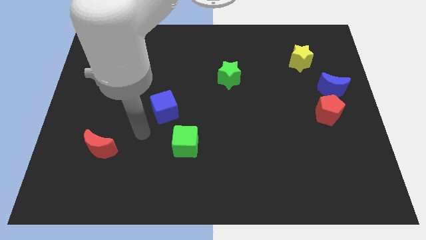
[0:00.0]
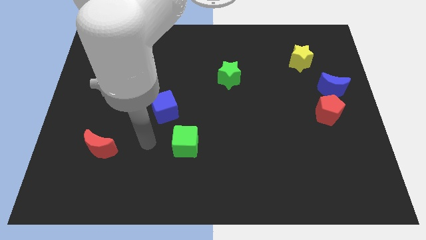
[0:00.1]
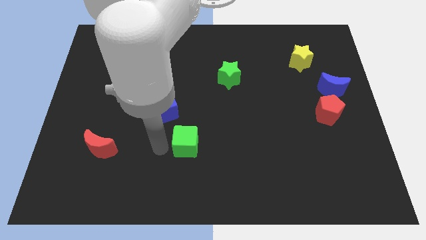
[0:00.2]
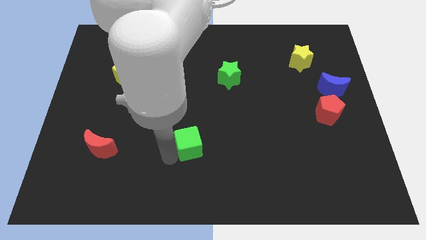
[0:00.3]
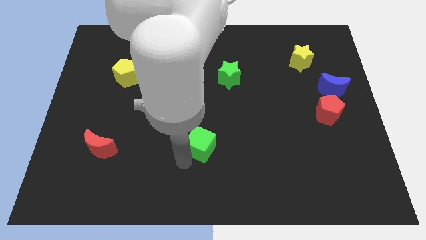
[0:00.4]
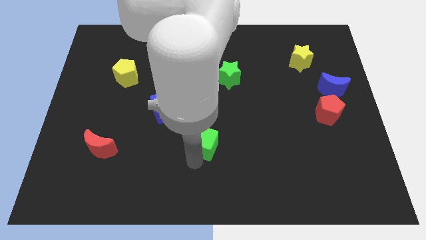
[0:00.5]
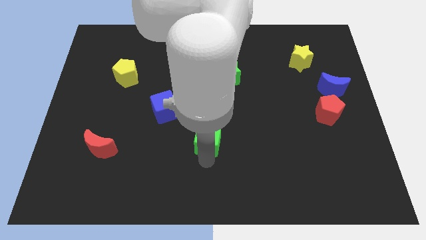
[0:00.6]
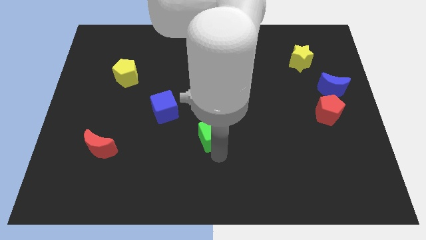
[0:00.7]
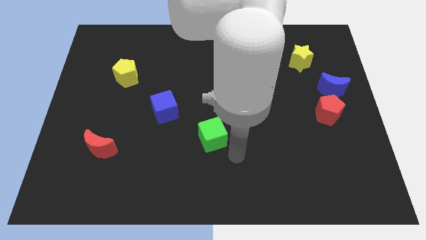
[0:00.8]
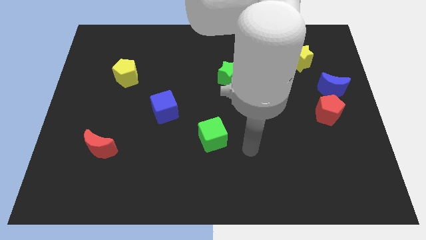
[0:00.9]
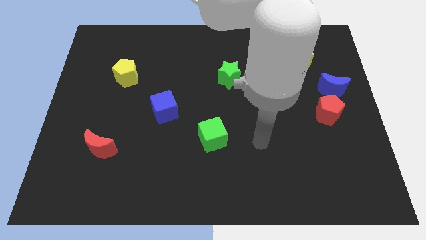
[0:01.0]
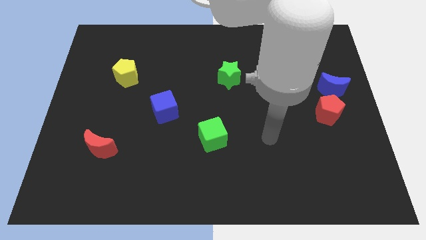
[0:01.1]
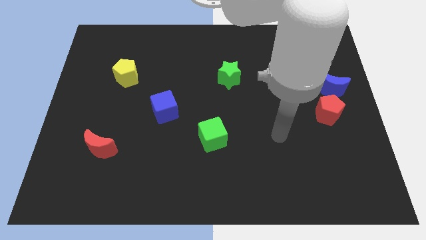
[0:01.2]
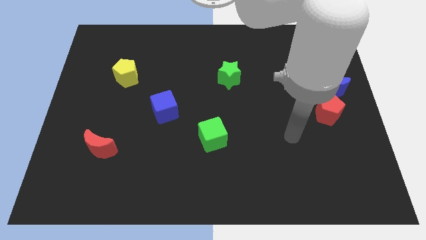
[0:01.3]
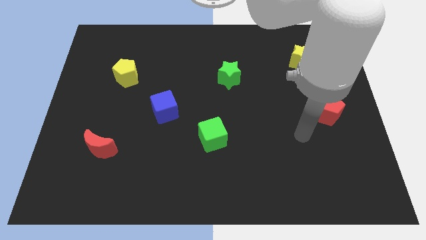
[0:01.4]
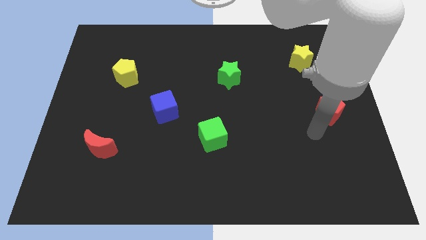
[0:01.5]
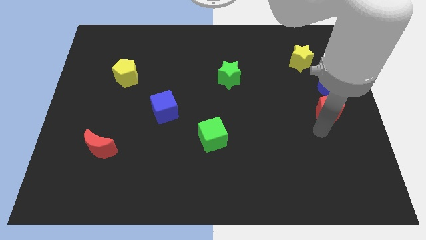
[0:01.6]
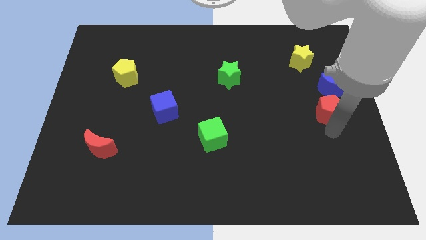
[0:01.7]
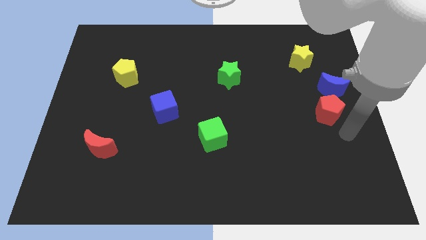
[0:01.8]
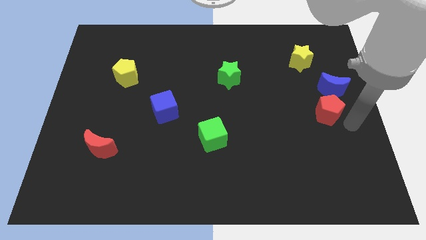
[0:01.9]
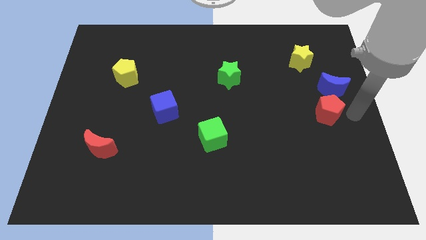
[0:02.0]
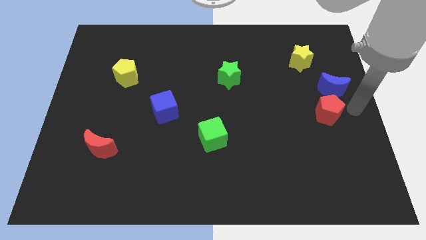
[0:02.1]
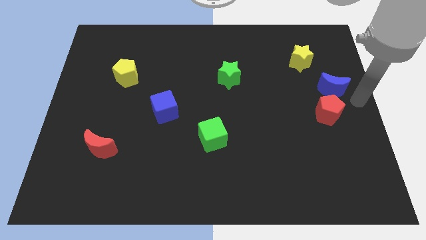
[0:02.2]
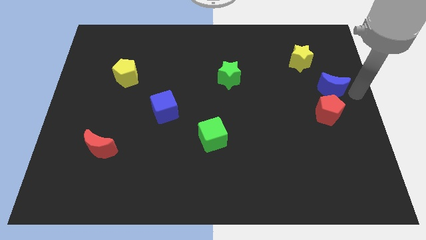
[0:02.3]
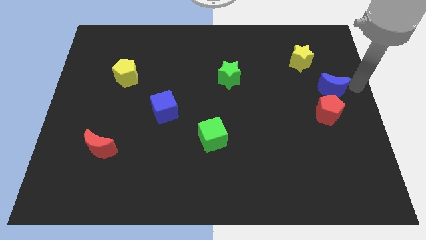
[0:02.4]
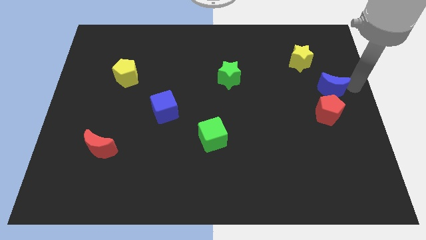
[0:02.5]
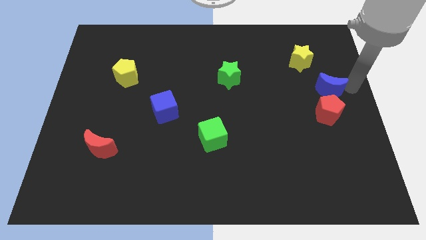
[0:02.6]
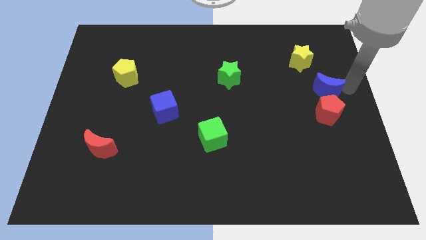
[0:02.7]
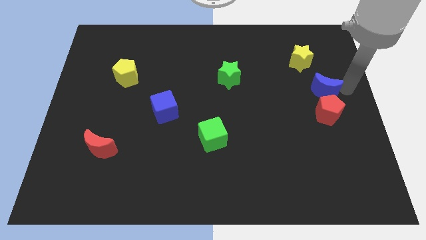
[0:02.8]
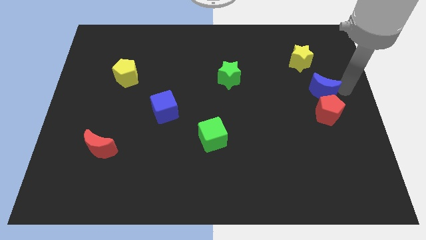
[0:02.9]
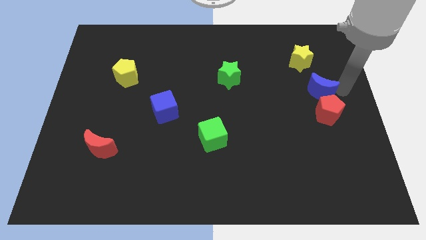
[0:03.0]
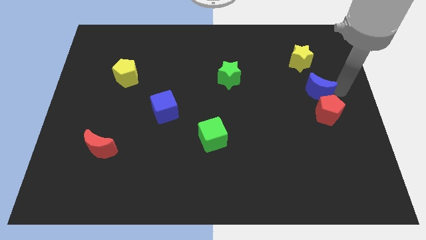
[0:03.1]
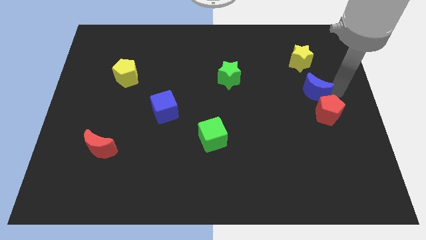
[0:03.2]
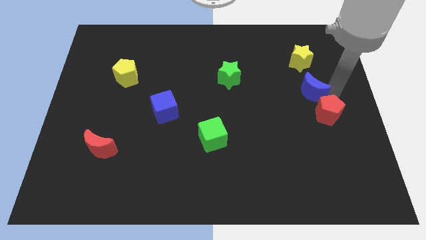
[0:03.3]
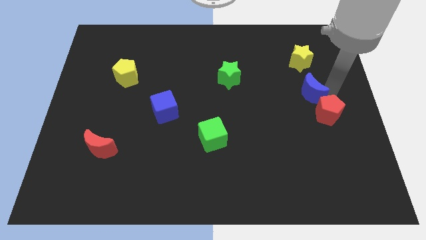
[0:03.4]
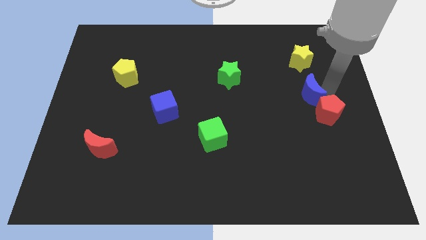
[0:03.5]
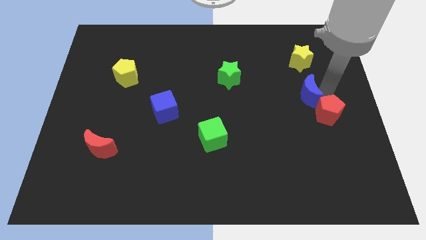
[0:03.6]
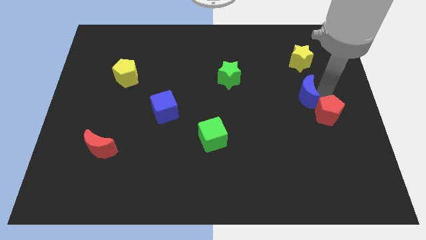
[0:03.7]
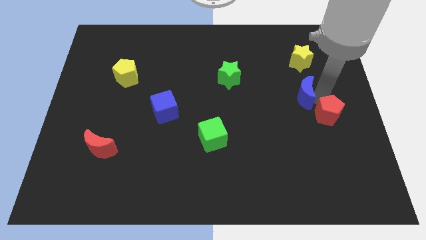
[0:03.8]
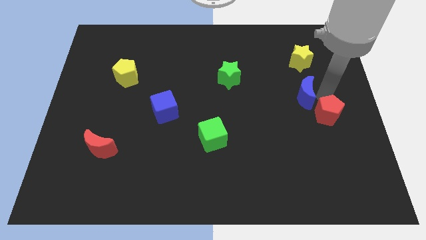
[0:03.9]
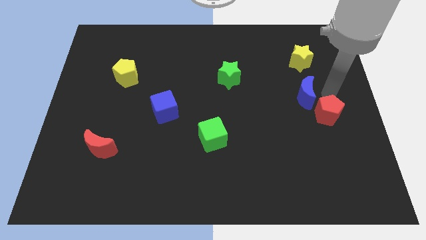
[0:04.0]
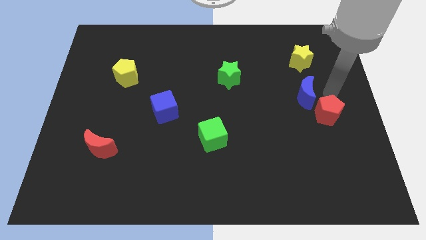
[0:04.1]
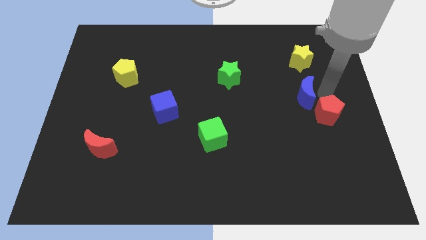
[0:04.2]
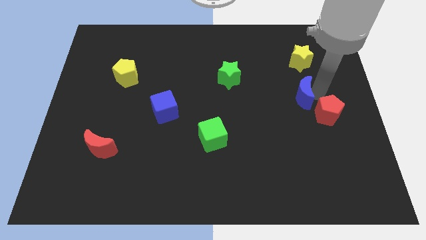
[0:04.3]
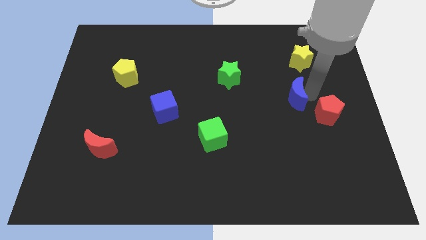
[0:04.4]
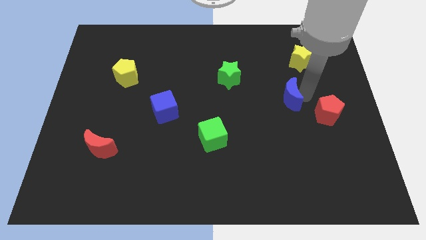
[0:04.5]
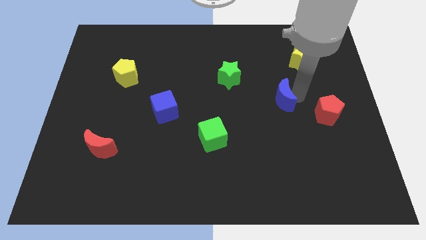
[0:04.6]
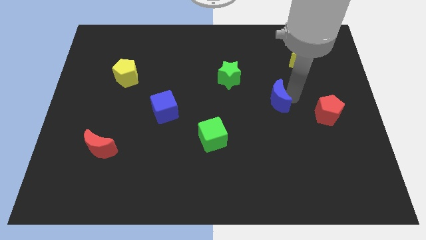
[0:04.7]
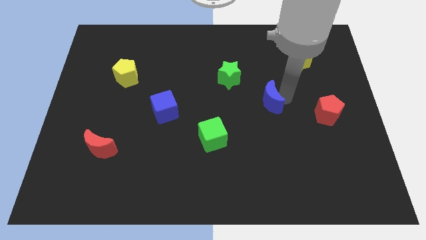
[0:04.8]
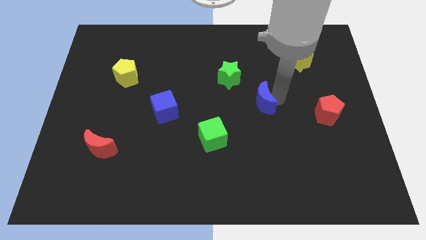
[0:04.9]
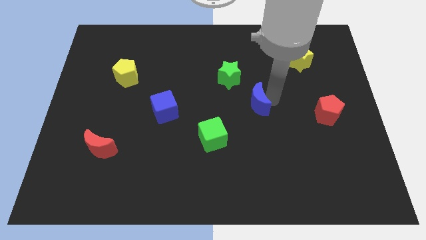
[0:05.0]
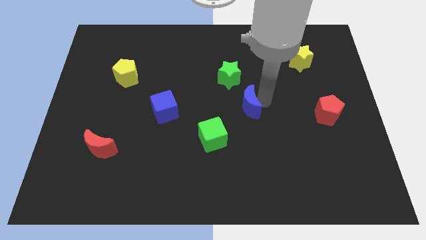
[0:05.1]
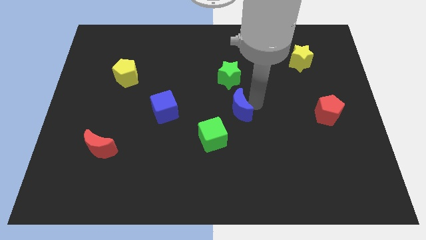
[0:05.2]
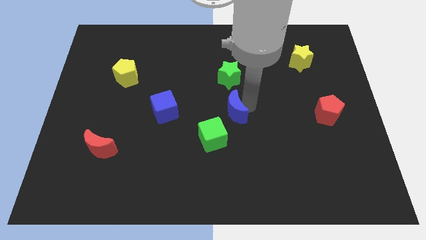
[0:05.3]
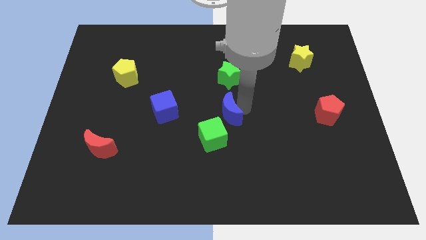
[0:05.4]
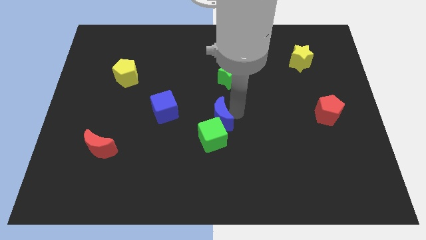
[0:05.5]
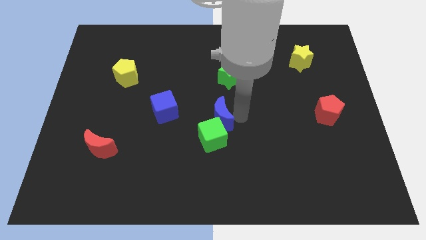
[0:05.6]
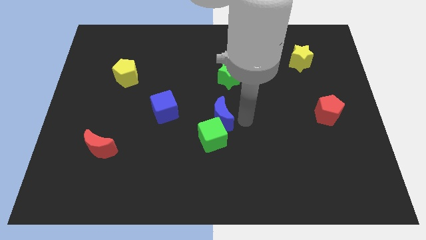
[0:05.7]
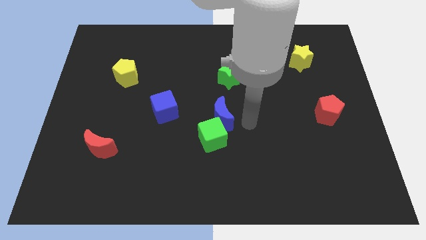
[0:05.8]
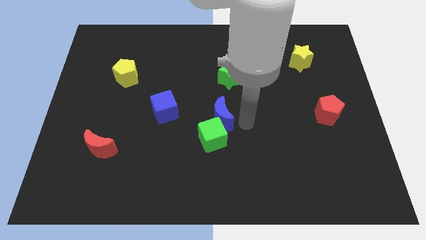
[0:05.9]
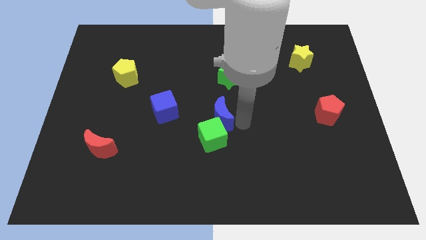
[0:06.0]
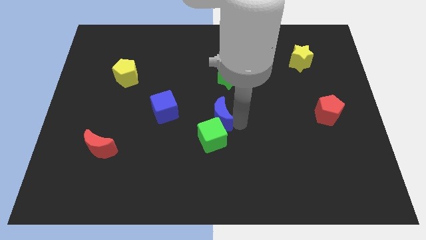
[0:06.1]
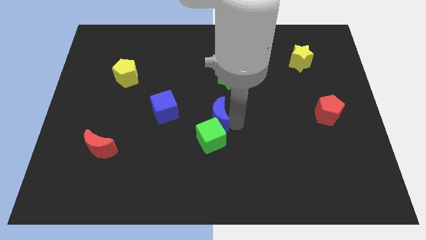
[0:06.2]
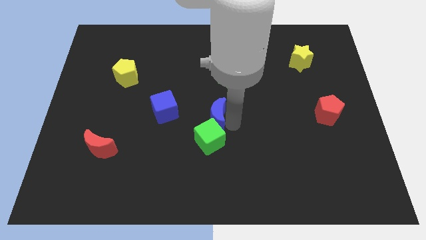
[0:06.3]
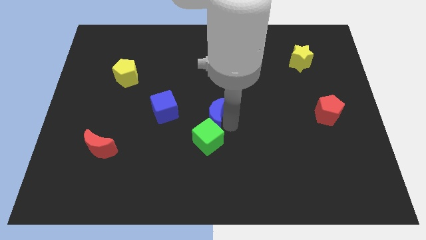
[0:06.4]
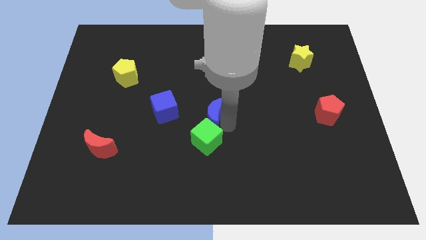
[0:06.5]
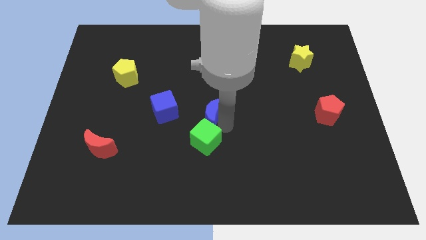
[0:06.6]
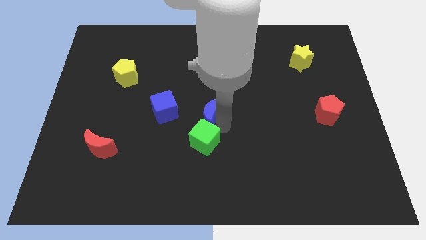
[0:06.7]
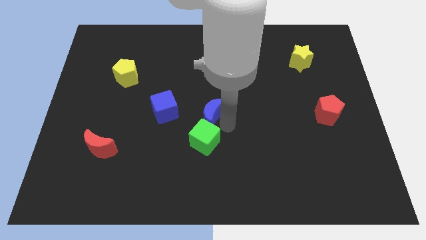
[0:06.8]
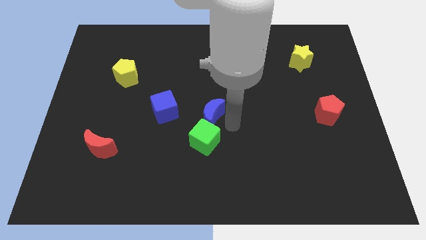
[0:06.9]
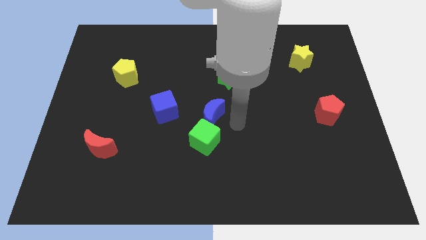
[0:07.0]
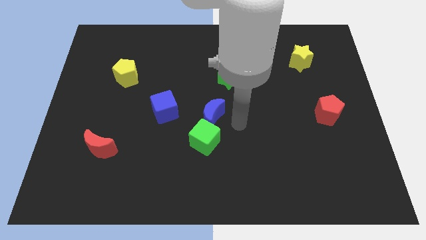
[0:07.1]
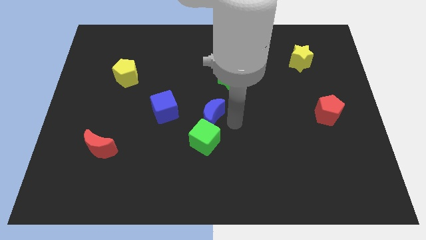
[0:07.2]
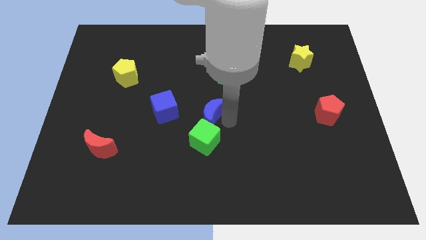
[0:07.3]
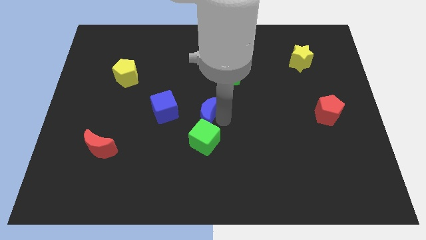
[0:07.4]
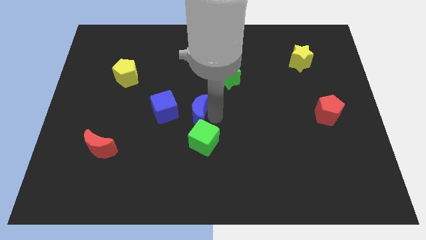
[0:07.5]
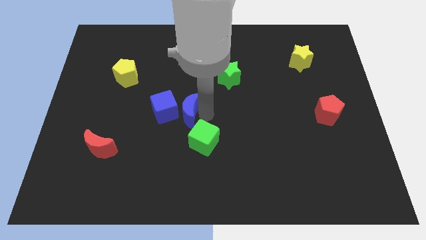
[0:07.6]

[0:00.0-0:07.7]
slide the blue moon close to the blue cube
